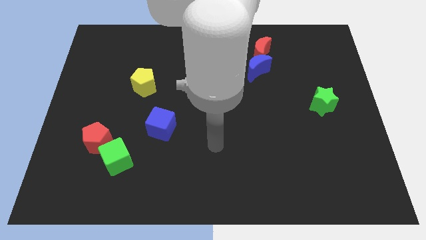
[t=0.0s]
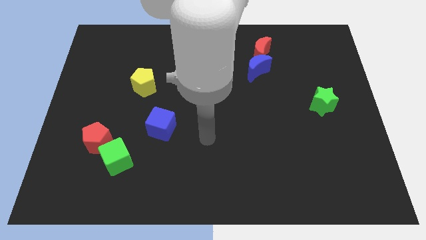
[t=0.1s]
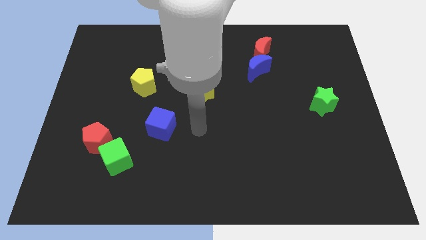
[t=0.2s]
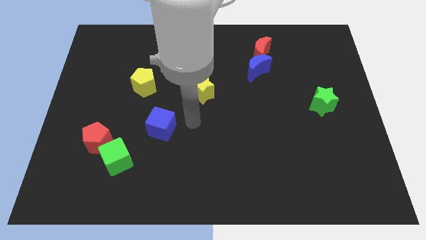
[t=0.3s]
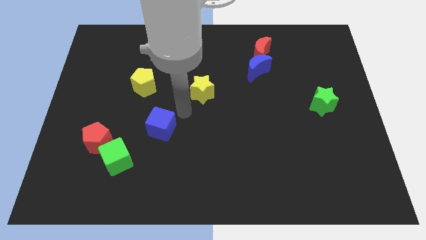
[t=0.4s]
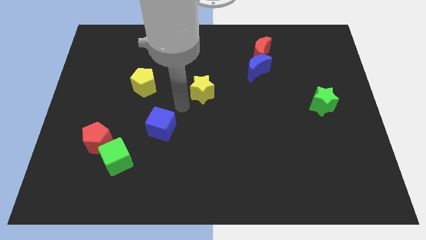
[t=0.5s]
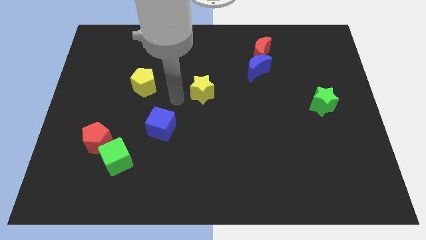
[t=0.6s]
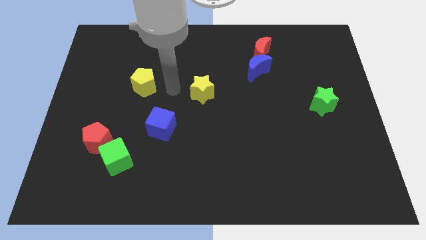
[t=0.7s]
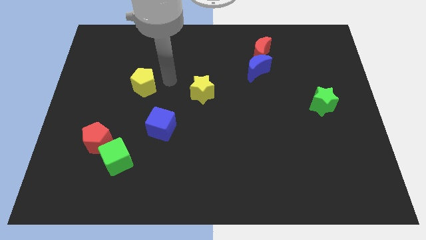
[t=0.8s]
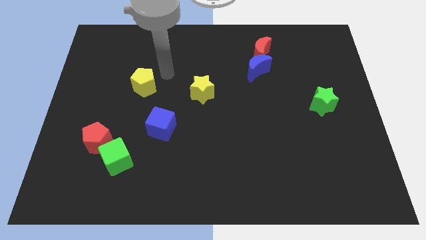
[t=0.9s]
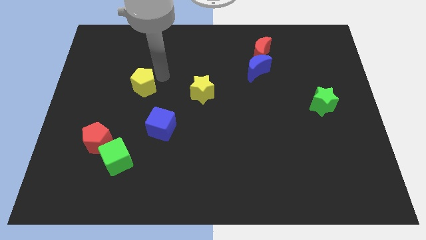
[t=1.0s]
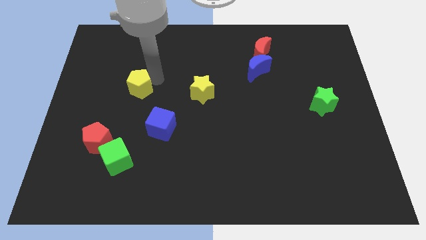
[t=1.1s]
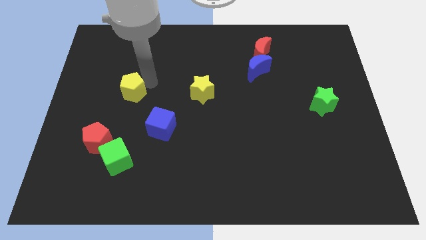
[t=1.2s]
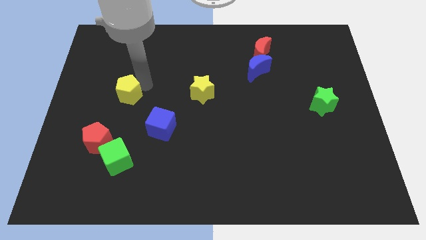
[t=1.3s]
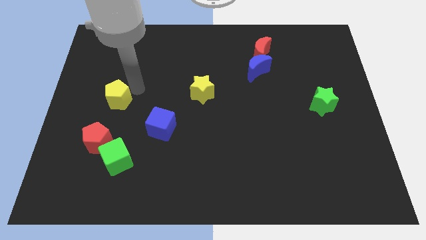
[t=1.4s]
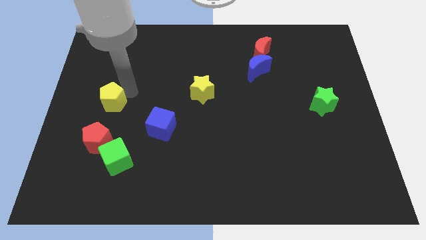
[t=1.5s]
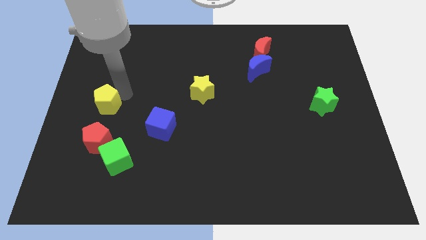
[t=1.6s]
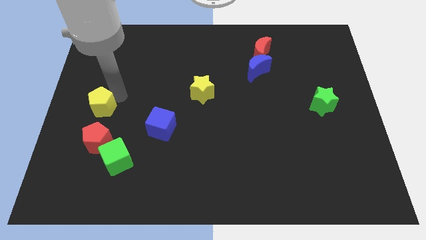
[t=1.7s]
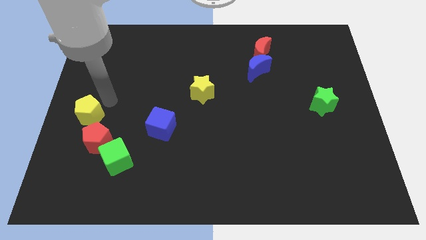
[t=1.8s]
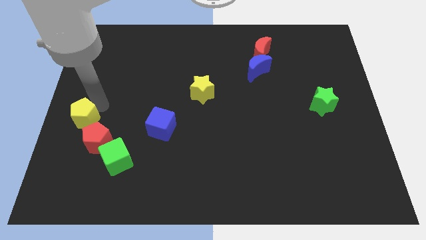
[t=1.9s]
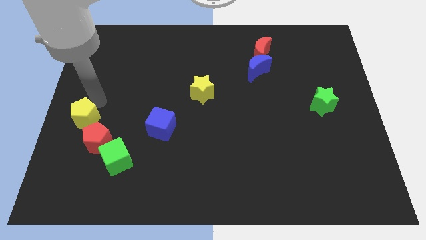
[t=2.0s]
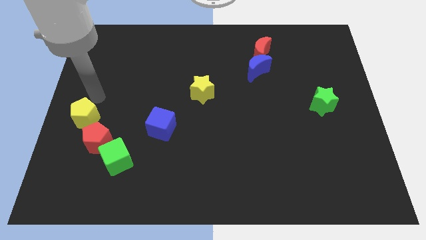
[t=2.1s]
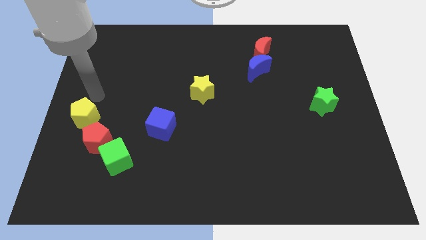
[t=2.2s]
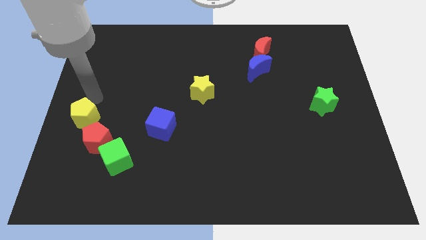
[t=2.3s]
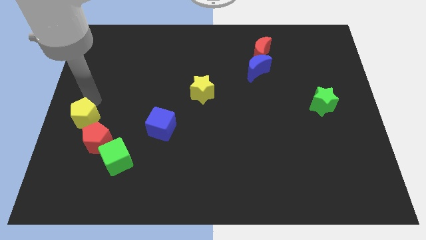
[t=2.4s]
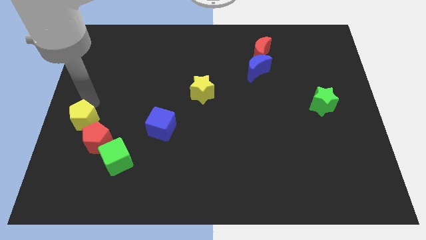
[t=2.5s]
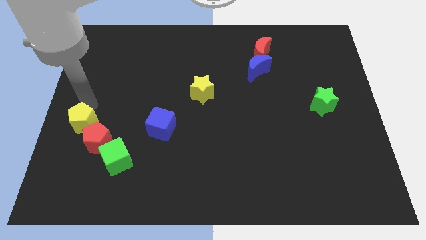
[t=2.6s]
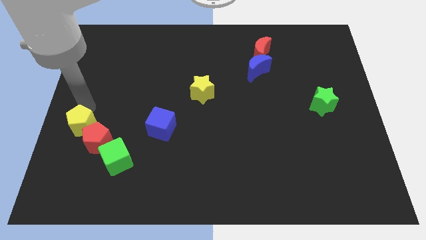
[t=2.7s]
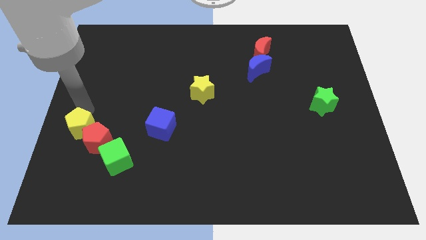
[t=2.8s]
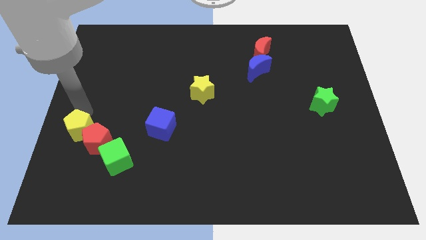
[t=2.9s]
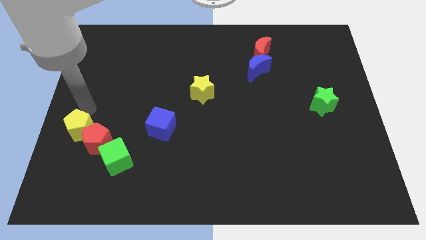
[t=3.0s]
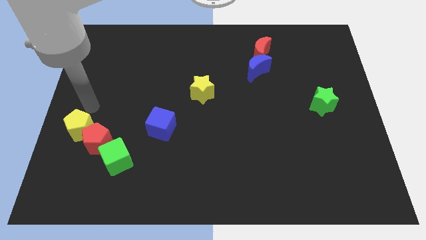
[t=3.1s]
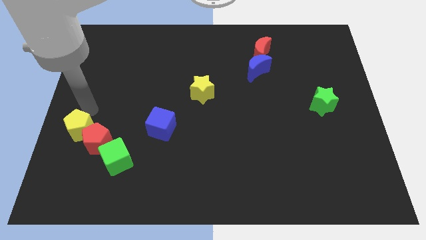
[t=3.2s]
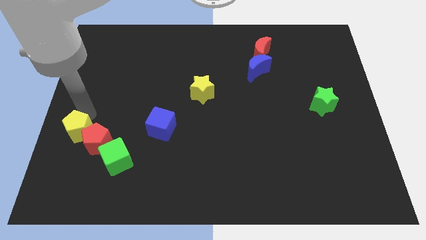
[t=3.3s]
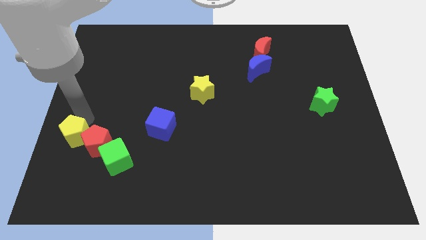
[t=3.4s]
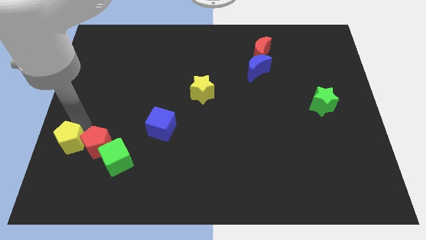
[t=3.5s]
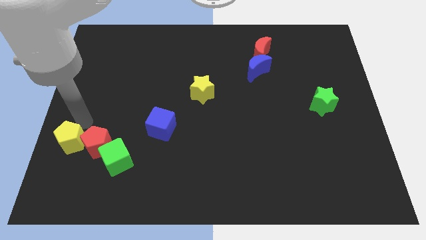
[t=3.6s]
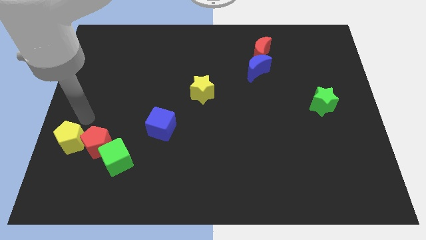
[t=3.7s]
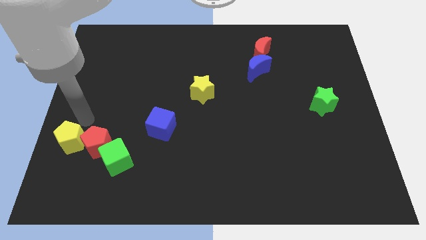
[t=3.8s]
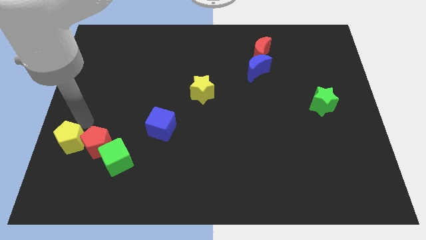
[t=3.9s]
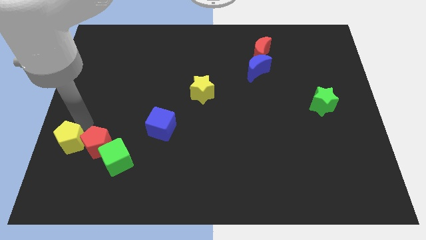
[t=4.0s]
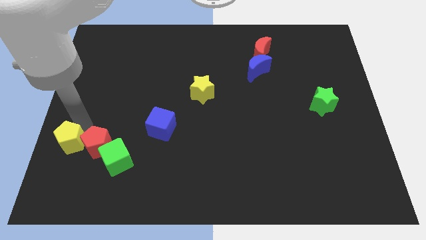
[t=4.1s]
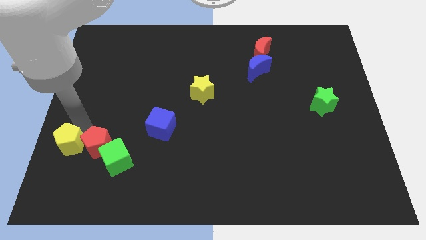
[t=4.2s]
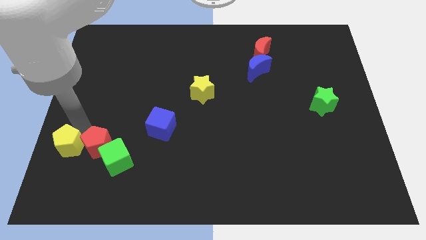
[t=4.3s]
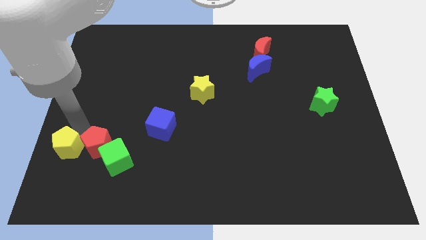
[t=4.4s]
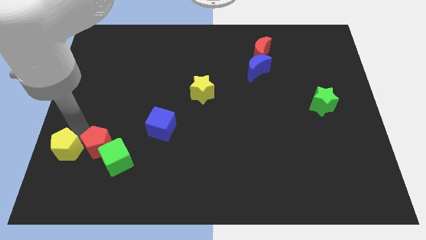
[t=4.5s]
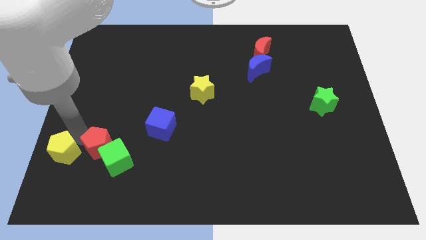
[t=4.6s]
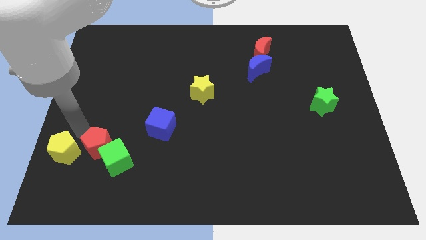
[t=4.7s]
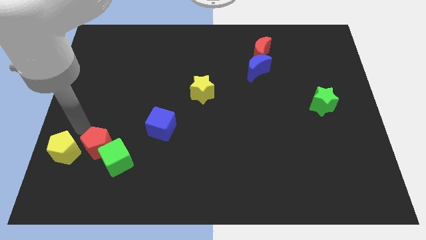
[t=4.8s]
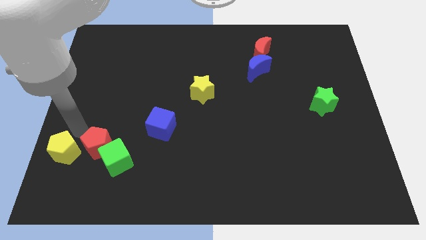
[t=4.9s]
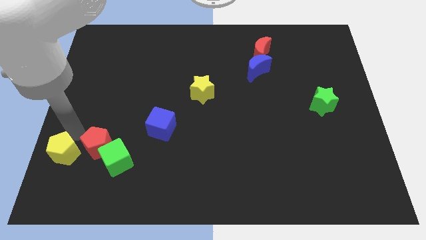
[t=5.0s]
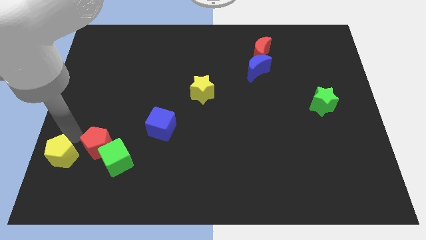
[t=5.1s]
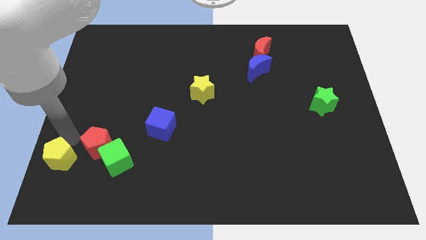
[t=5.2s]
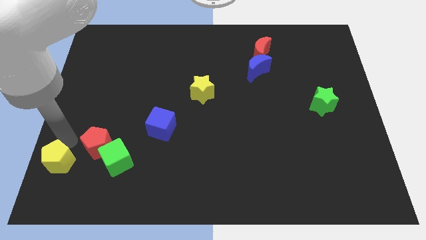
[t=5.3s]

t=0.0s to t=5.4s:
slide the yellow pentagon to the bottom left

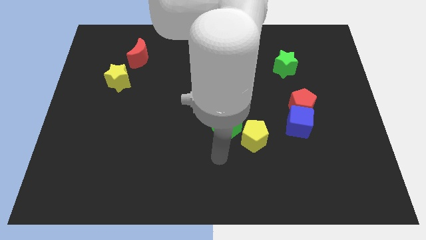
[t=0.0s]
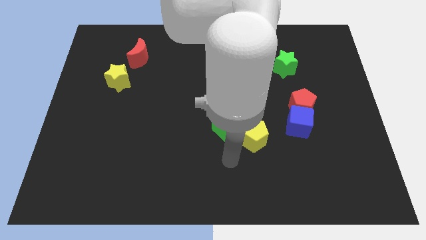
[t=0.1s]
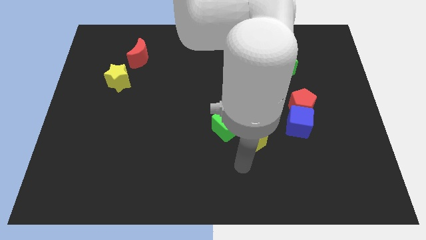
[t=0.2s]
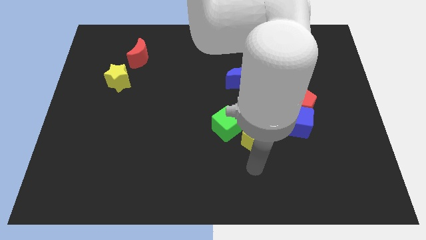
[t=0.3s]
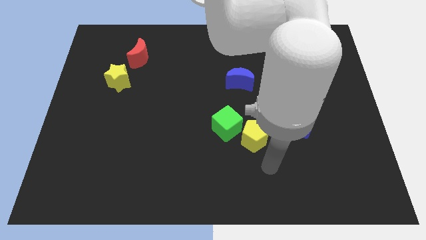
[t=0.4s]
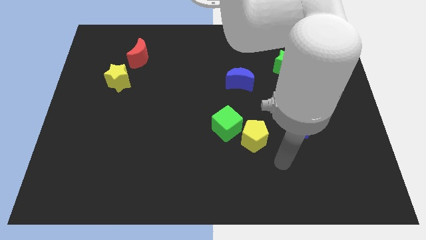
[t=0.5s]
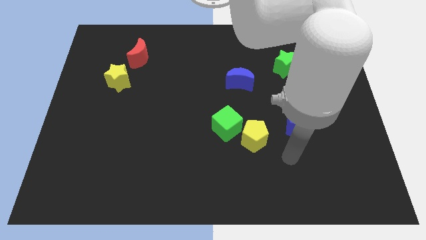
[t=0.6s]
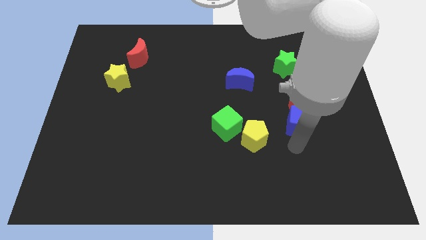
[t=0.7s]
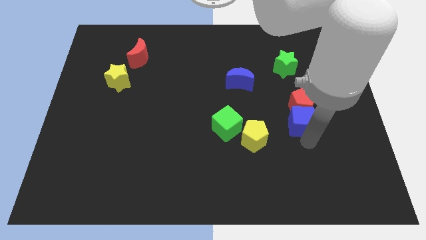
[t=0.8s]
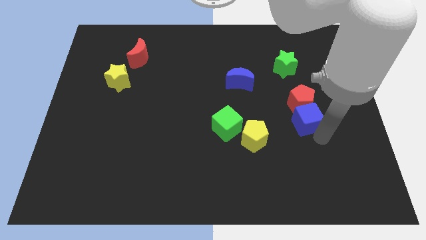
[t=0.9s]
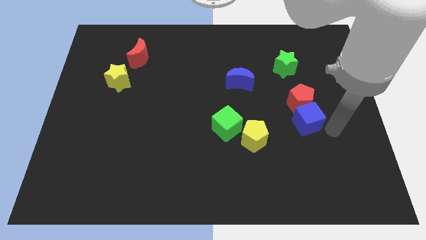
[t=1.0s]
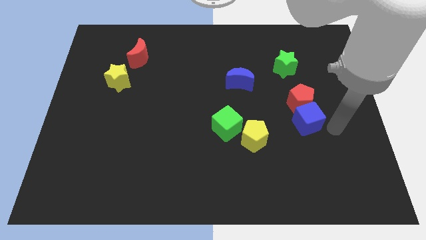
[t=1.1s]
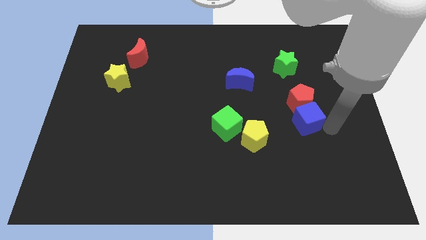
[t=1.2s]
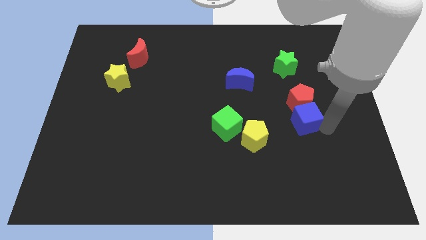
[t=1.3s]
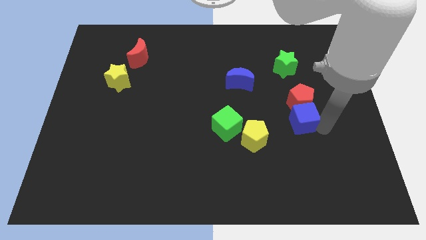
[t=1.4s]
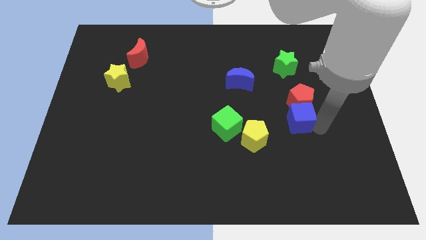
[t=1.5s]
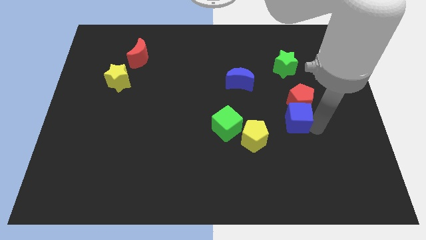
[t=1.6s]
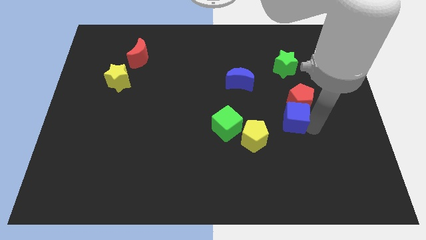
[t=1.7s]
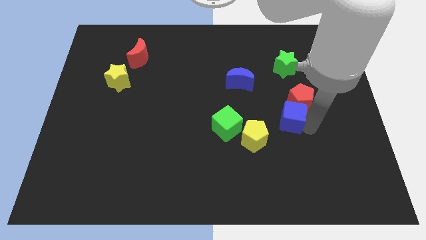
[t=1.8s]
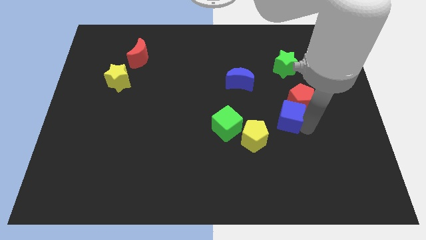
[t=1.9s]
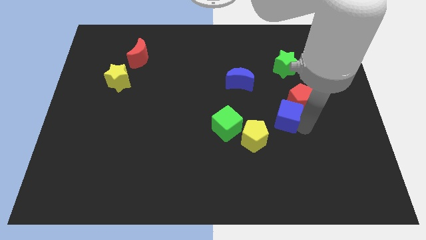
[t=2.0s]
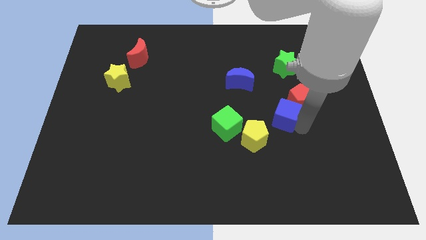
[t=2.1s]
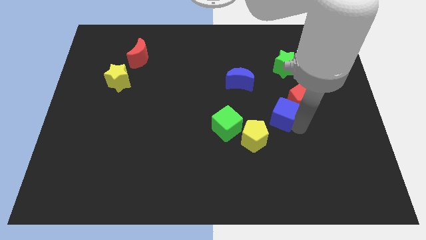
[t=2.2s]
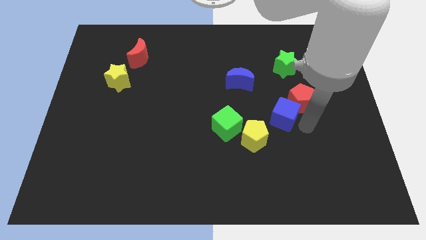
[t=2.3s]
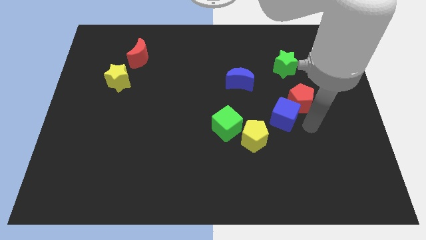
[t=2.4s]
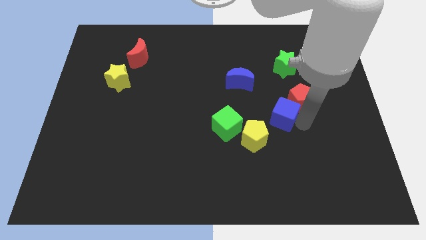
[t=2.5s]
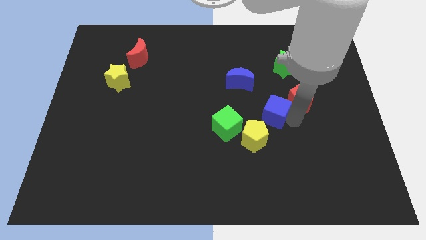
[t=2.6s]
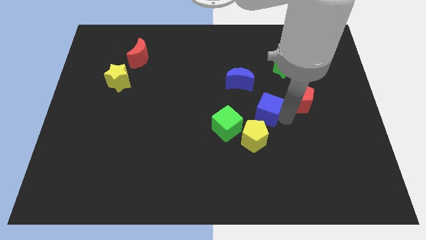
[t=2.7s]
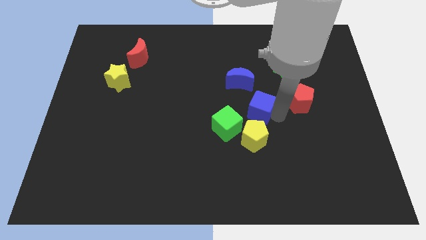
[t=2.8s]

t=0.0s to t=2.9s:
slide the blue cube to the middle
